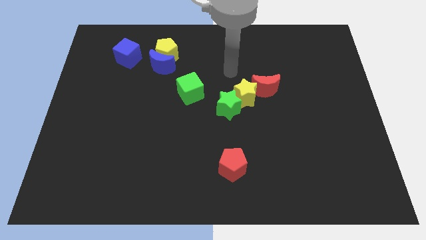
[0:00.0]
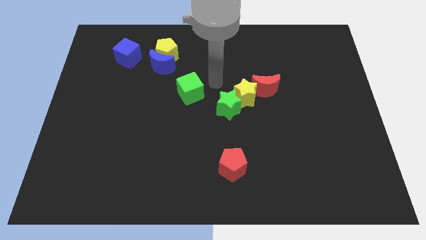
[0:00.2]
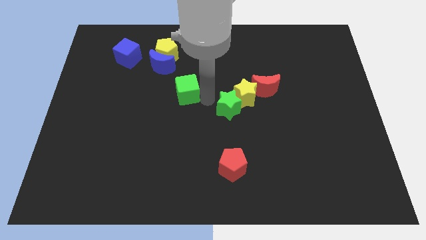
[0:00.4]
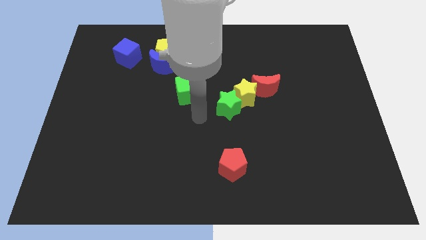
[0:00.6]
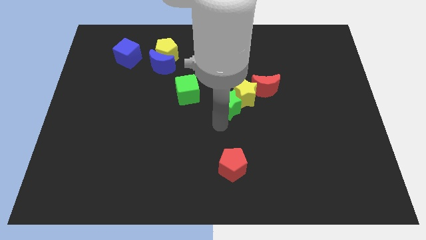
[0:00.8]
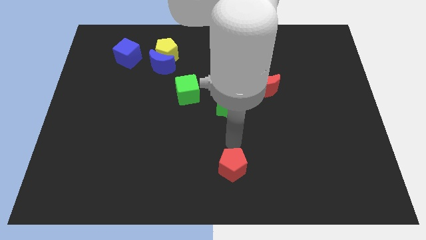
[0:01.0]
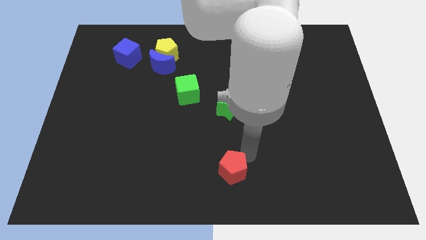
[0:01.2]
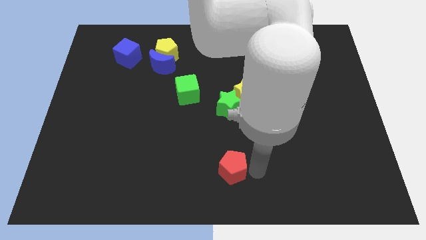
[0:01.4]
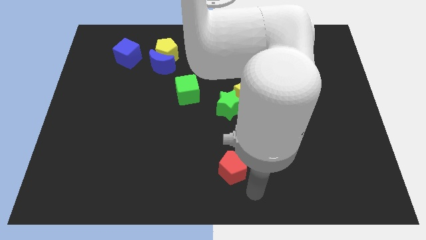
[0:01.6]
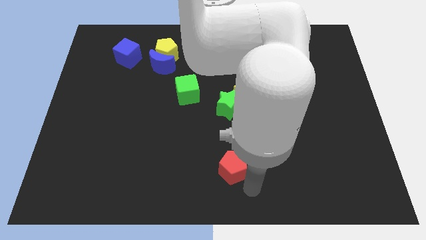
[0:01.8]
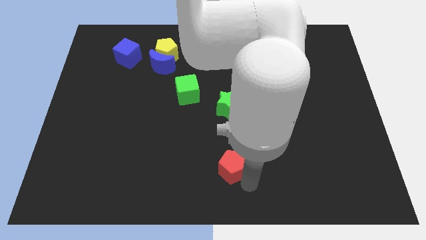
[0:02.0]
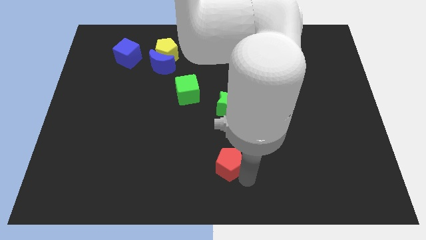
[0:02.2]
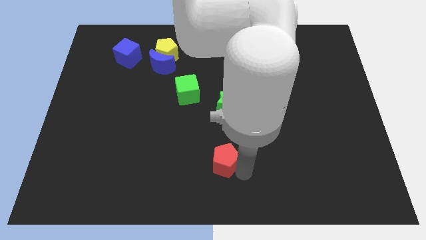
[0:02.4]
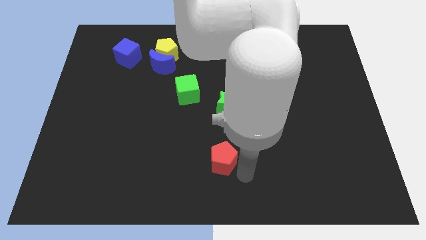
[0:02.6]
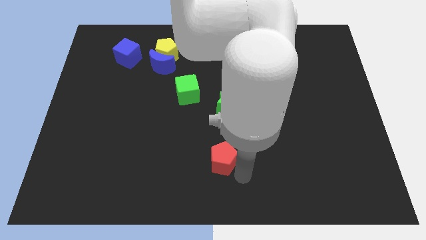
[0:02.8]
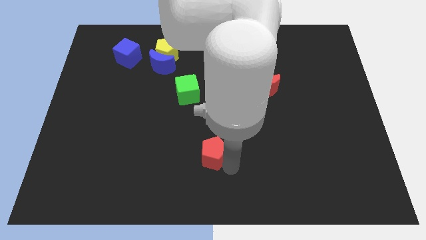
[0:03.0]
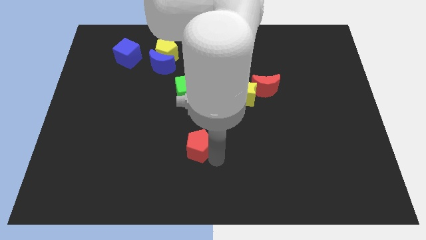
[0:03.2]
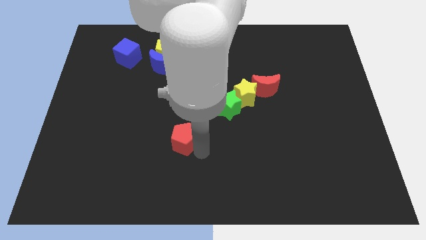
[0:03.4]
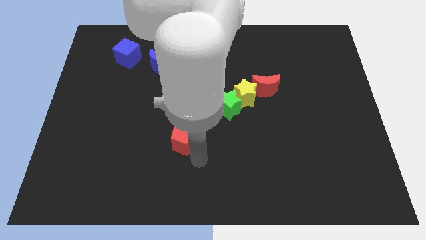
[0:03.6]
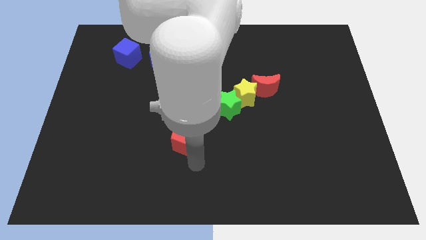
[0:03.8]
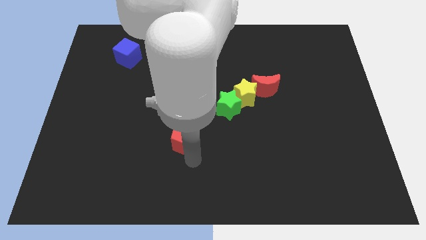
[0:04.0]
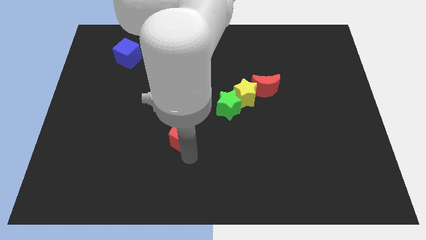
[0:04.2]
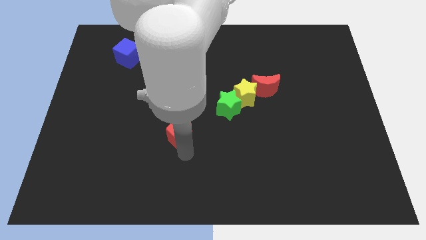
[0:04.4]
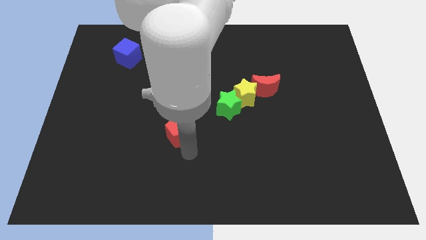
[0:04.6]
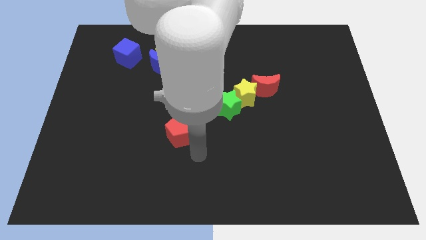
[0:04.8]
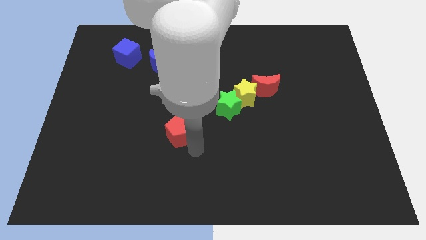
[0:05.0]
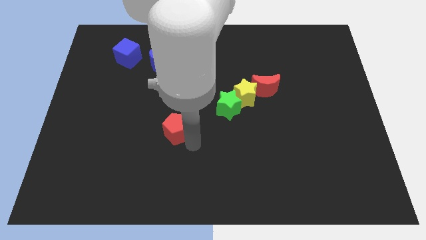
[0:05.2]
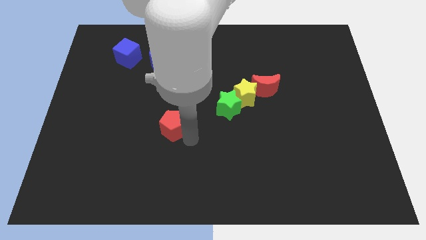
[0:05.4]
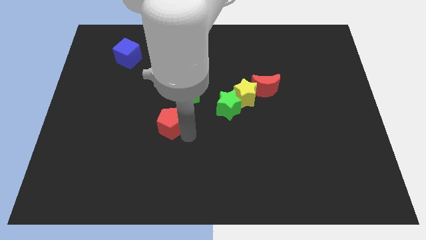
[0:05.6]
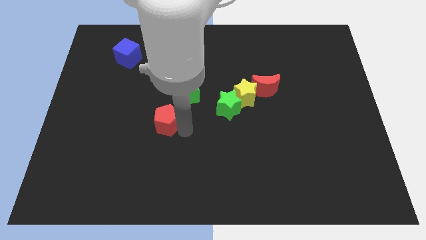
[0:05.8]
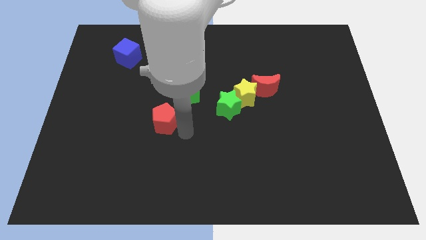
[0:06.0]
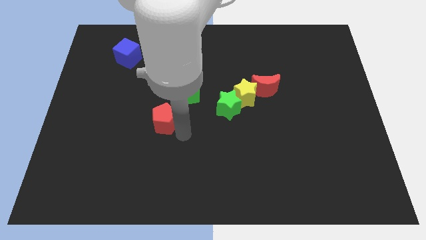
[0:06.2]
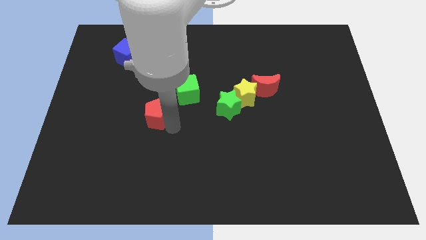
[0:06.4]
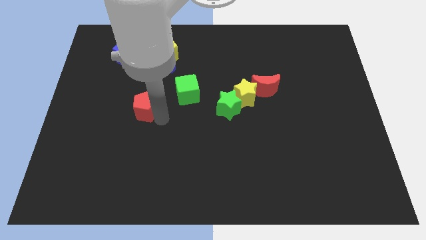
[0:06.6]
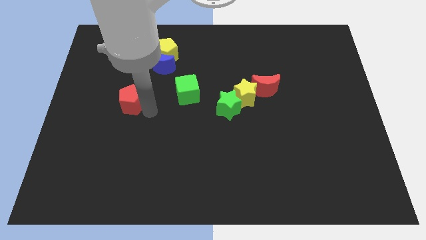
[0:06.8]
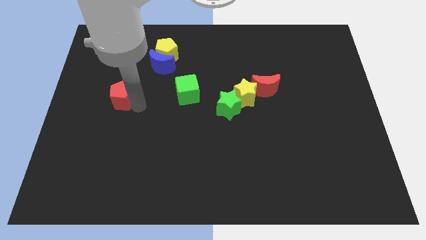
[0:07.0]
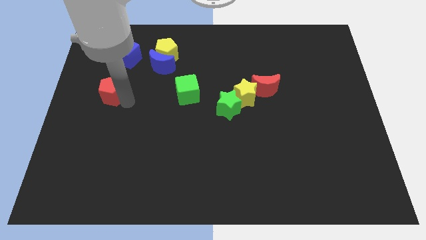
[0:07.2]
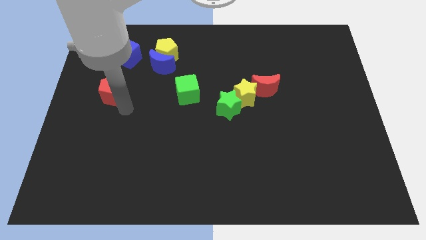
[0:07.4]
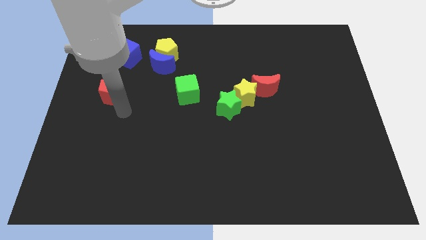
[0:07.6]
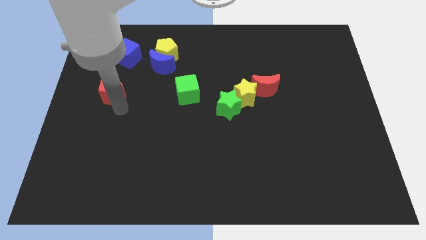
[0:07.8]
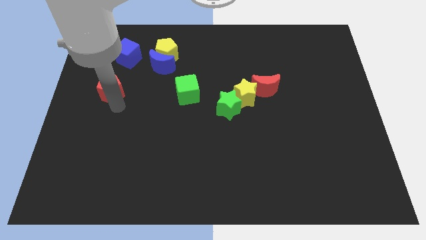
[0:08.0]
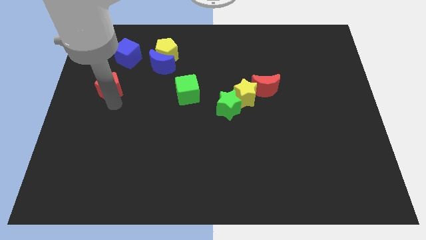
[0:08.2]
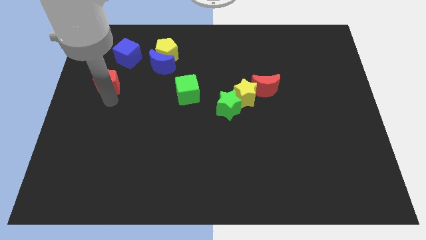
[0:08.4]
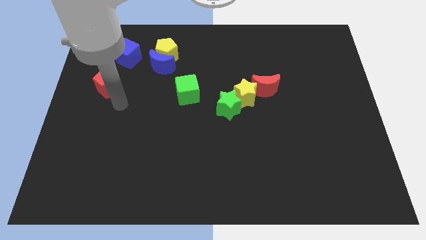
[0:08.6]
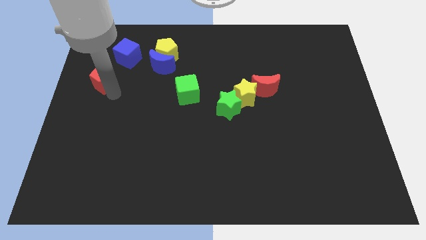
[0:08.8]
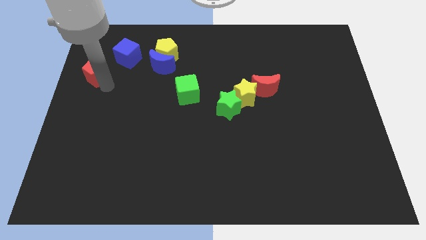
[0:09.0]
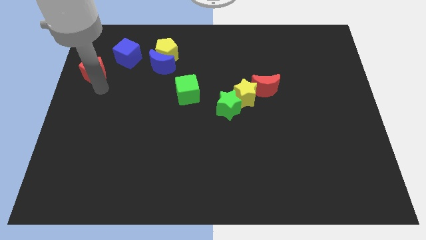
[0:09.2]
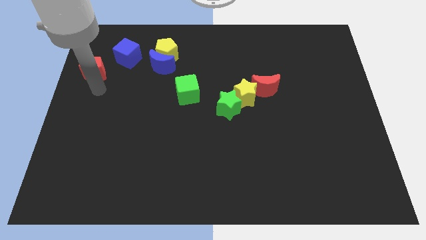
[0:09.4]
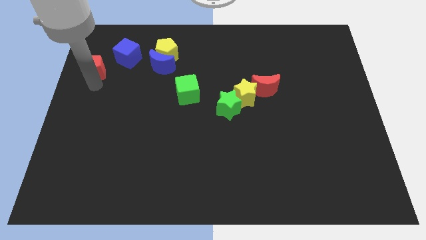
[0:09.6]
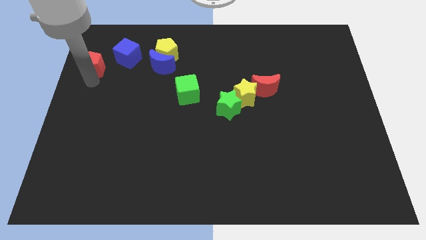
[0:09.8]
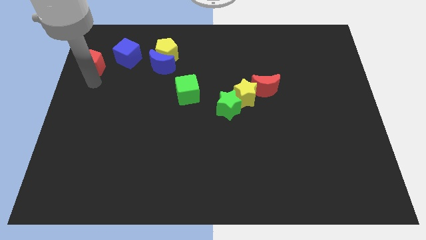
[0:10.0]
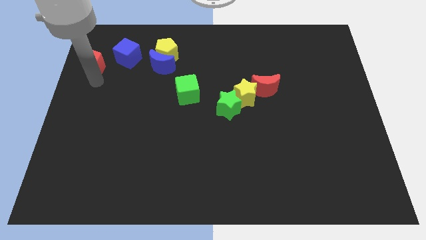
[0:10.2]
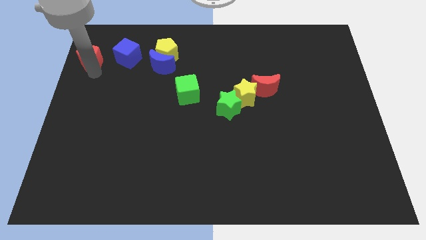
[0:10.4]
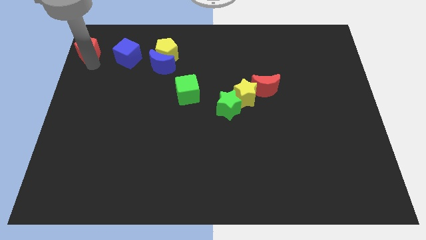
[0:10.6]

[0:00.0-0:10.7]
slide the red pentagon to the top left
